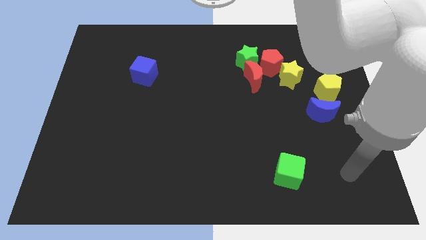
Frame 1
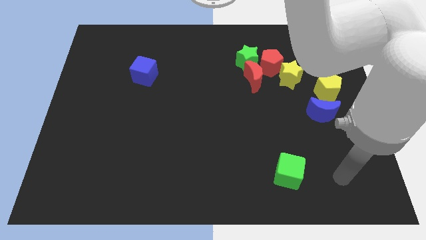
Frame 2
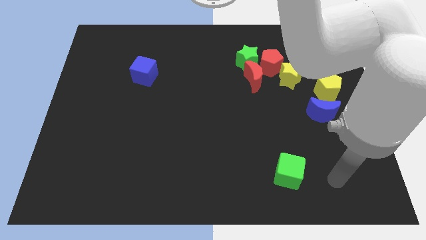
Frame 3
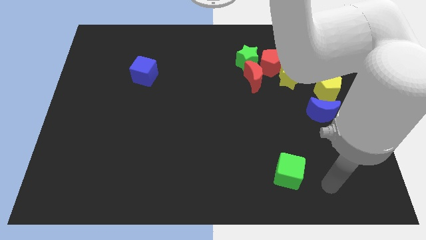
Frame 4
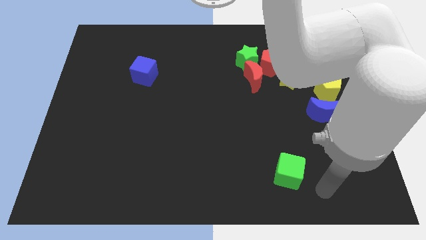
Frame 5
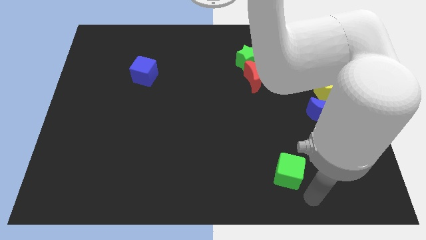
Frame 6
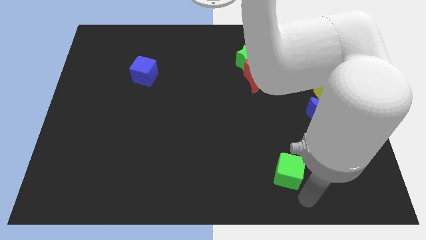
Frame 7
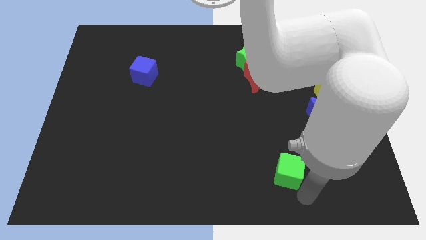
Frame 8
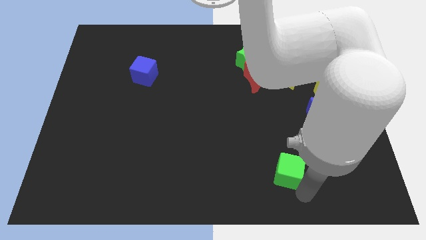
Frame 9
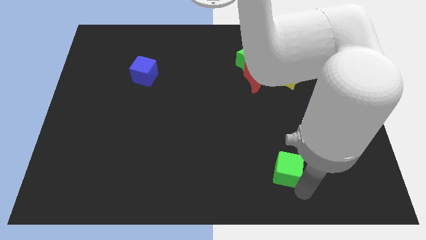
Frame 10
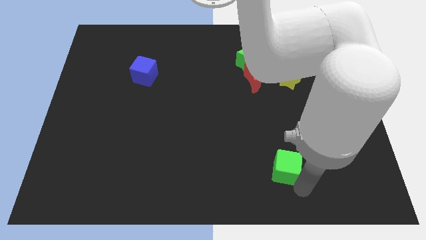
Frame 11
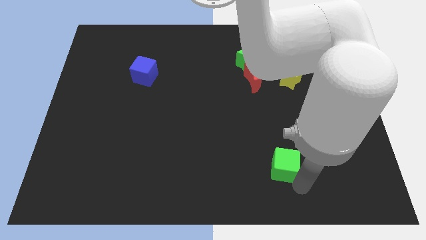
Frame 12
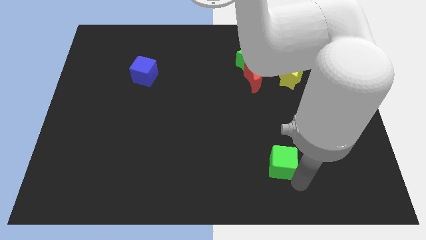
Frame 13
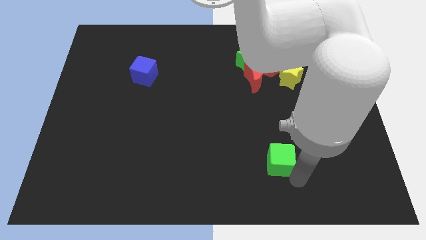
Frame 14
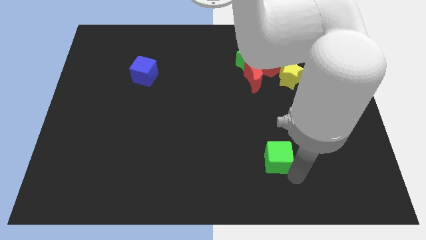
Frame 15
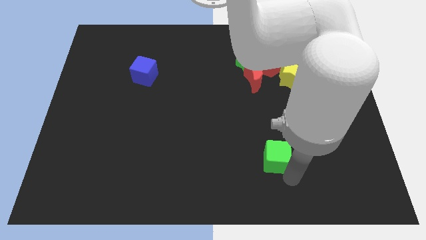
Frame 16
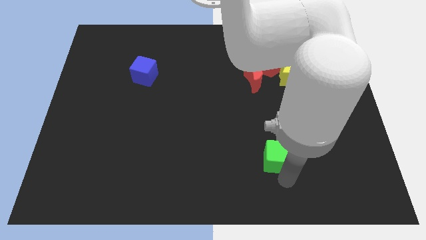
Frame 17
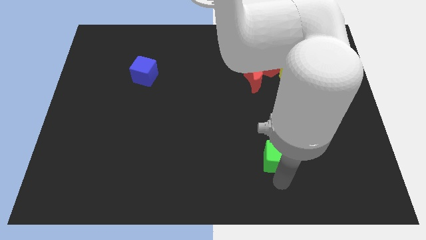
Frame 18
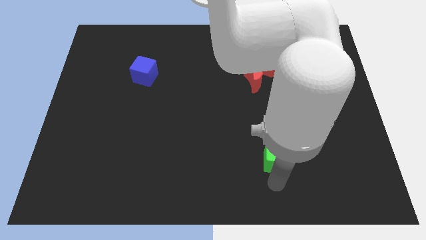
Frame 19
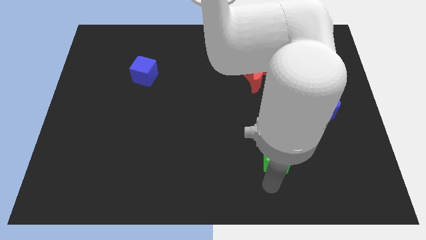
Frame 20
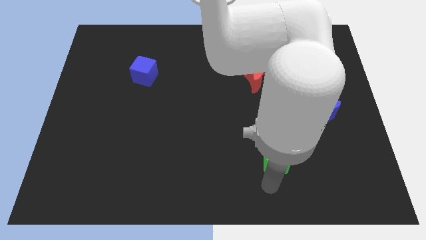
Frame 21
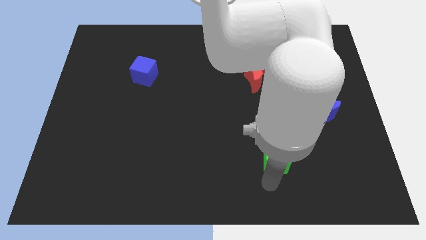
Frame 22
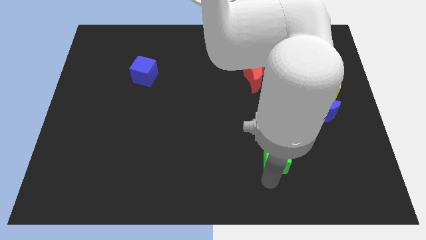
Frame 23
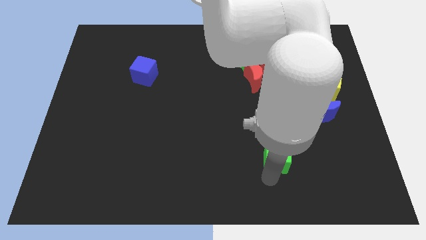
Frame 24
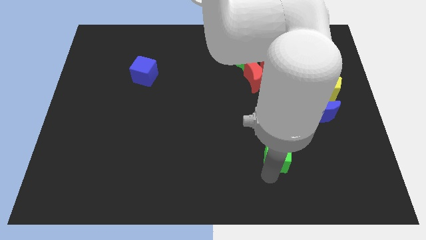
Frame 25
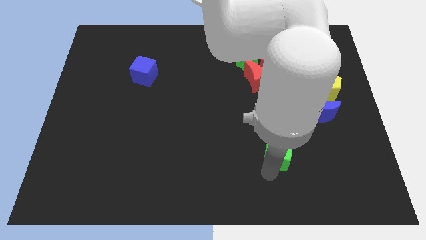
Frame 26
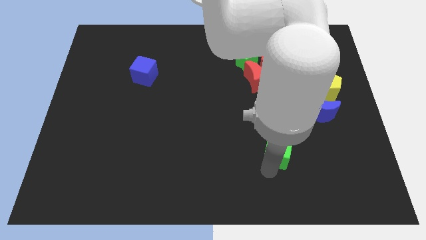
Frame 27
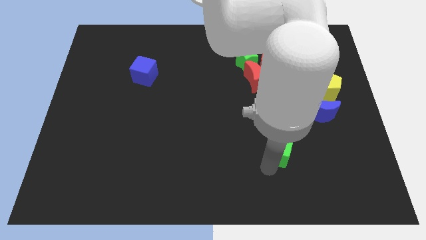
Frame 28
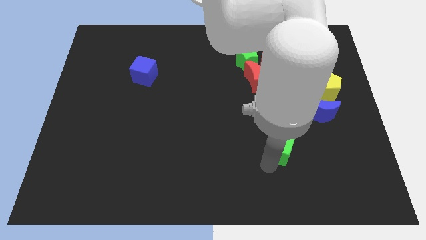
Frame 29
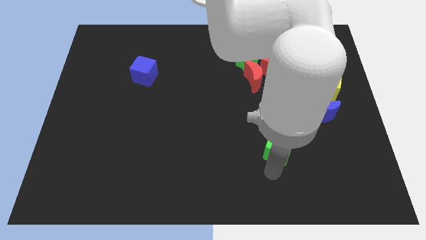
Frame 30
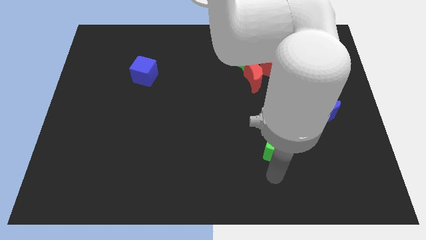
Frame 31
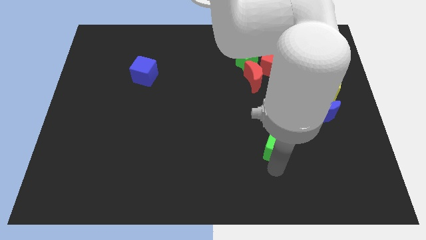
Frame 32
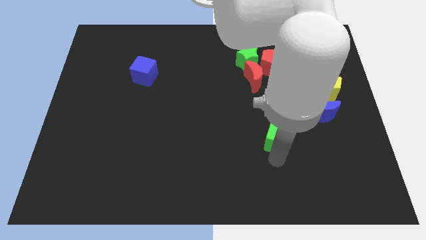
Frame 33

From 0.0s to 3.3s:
slightly push the green cube up

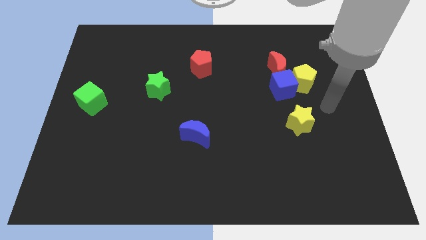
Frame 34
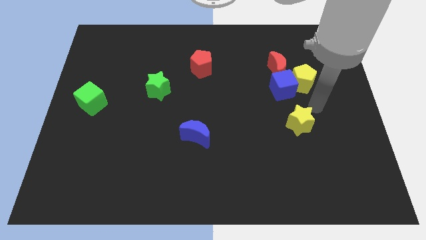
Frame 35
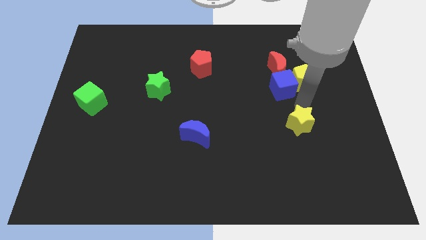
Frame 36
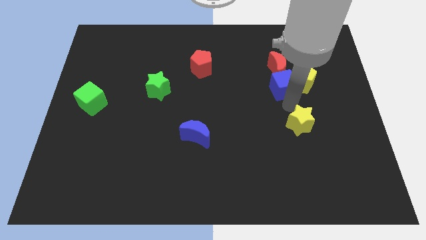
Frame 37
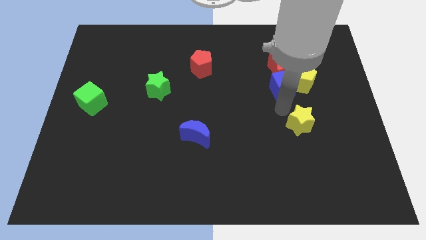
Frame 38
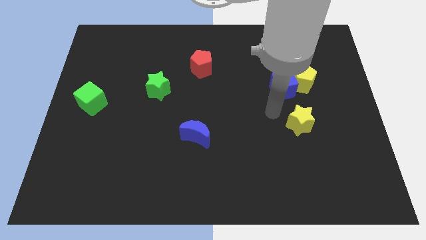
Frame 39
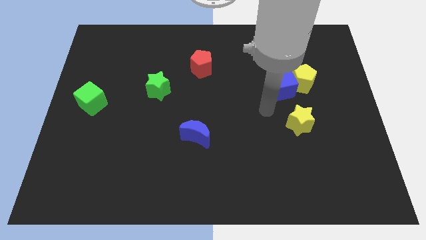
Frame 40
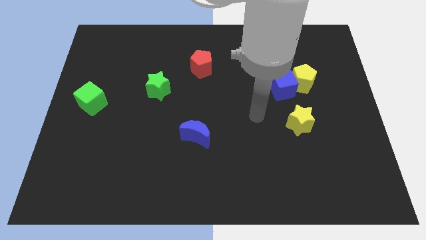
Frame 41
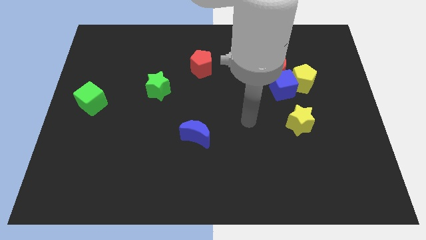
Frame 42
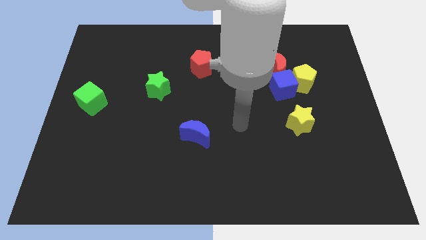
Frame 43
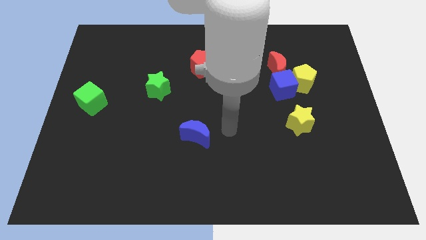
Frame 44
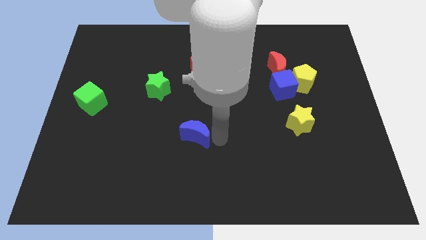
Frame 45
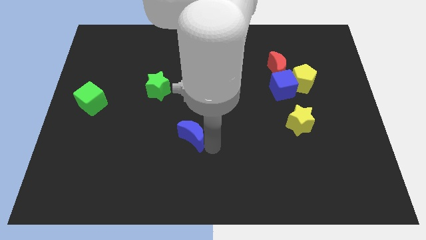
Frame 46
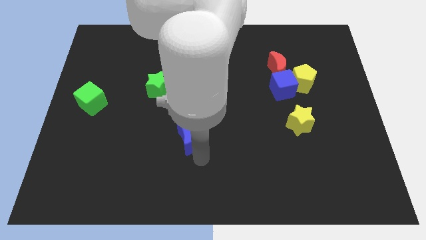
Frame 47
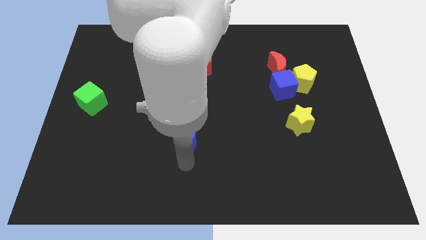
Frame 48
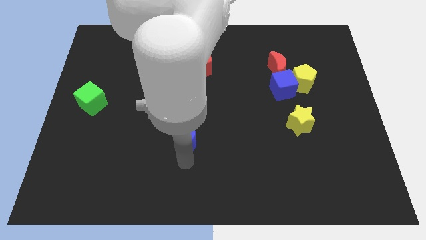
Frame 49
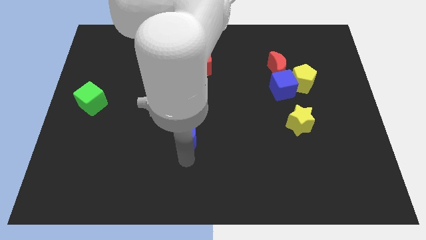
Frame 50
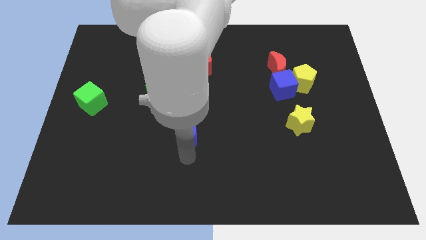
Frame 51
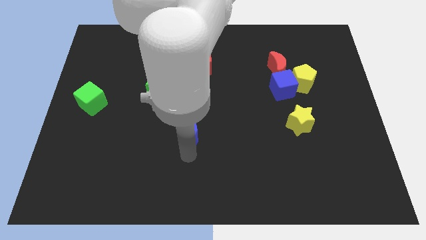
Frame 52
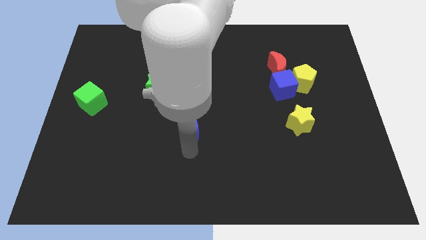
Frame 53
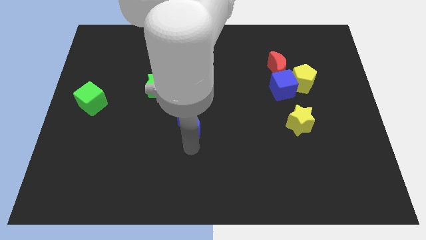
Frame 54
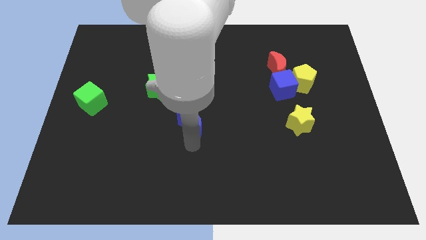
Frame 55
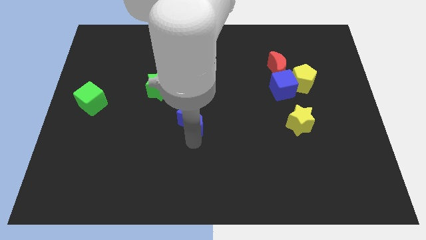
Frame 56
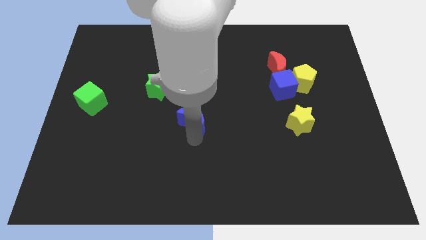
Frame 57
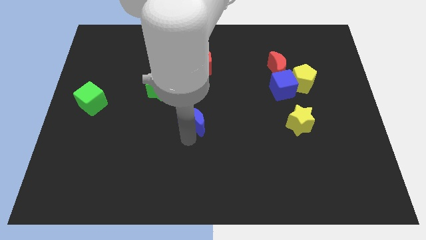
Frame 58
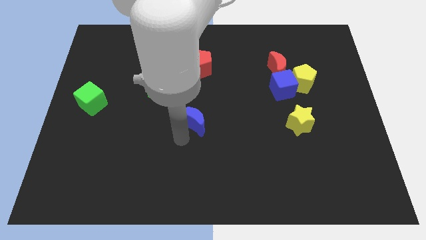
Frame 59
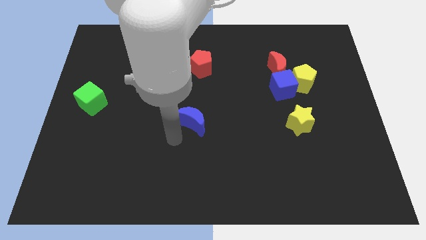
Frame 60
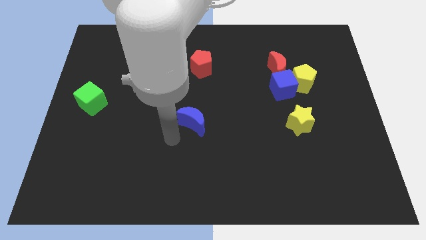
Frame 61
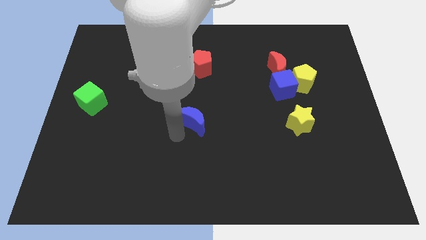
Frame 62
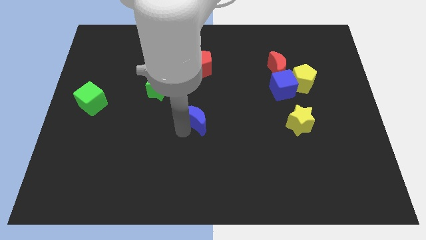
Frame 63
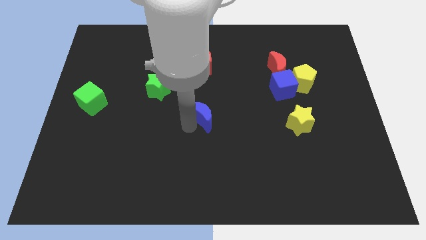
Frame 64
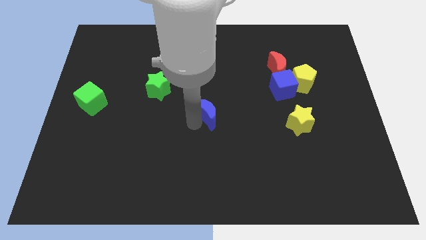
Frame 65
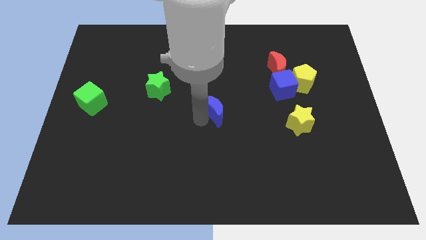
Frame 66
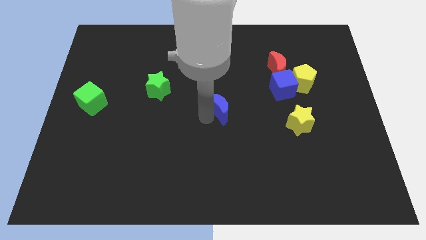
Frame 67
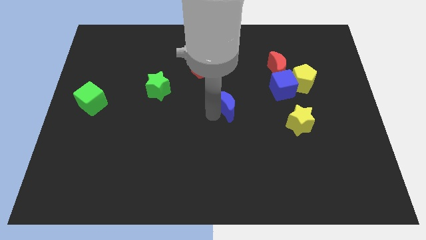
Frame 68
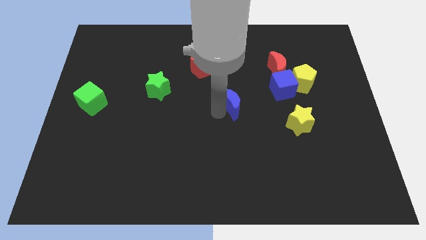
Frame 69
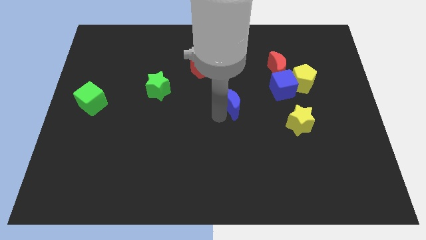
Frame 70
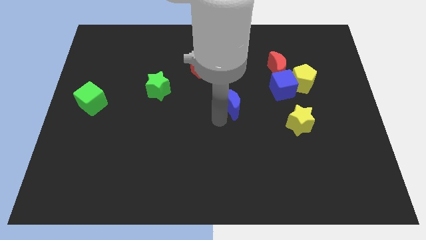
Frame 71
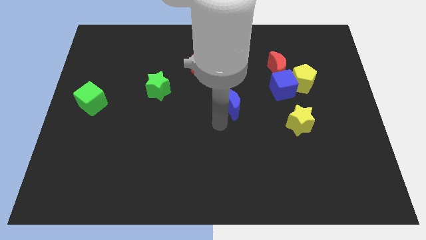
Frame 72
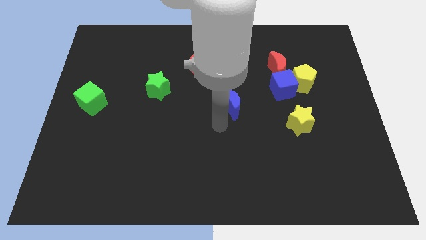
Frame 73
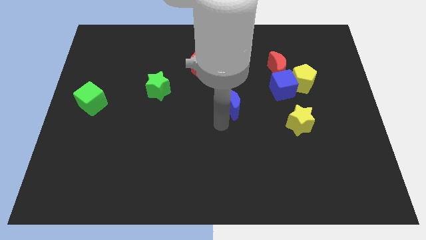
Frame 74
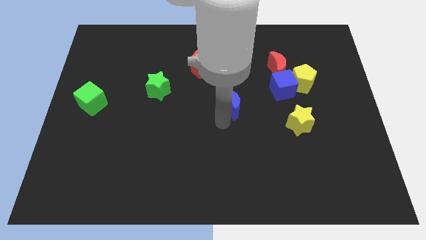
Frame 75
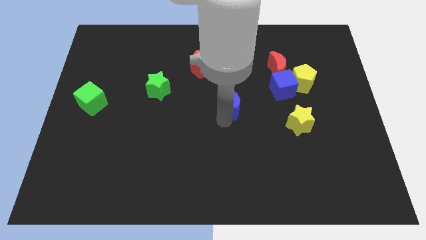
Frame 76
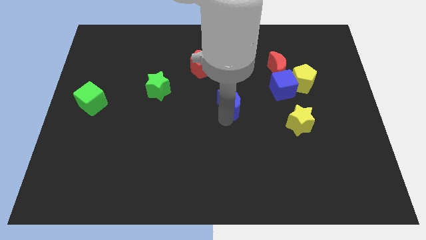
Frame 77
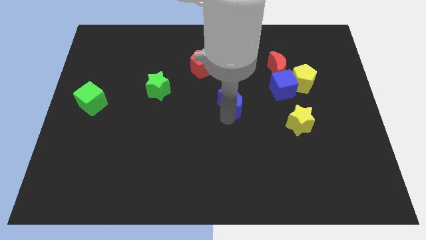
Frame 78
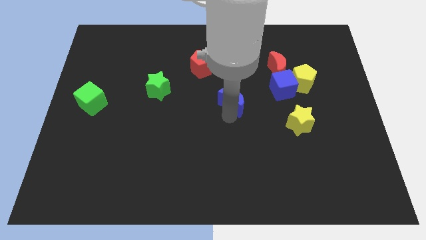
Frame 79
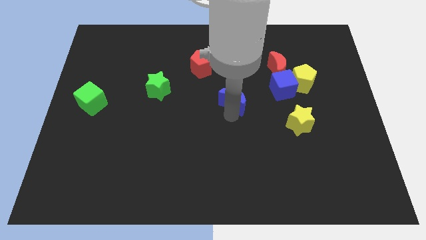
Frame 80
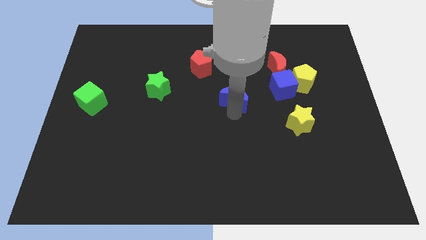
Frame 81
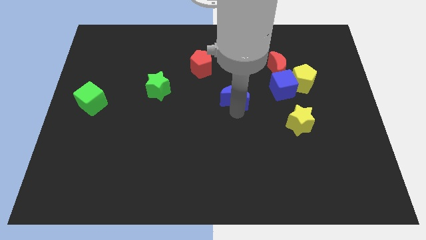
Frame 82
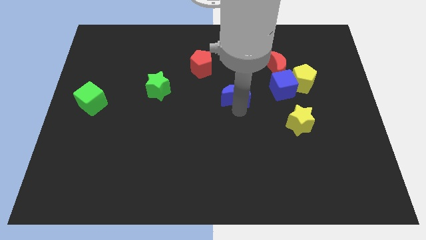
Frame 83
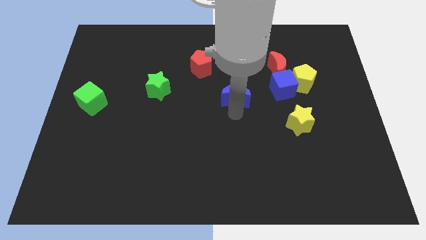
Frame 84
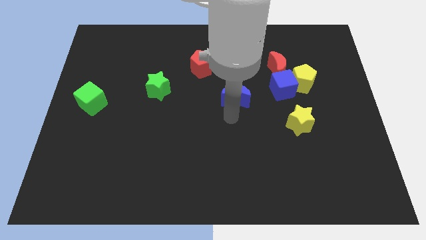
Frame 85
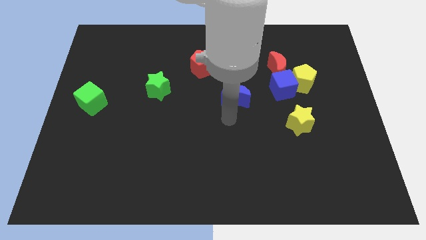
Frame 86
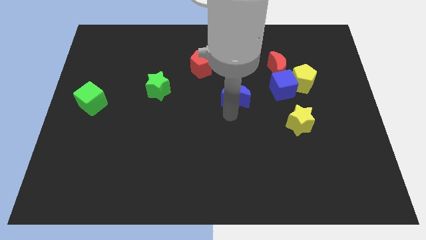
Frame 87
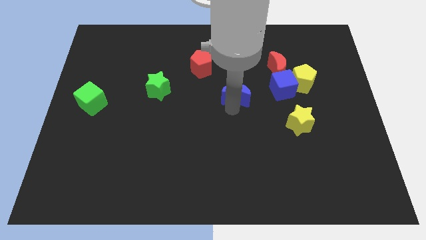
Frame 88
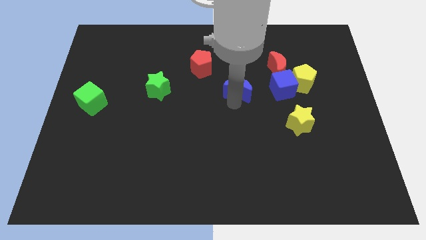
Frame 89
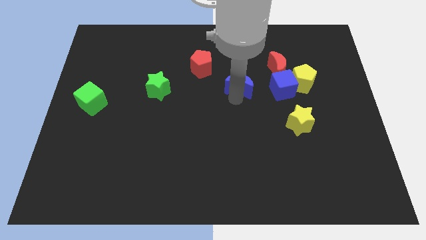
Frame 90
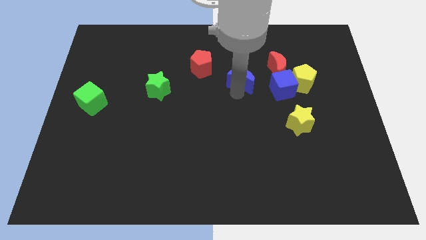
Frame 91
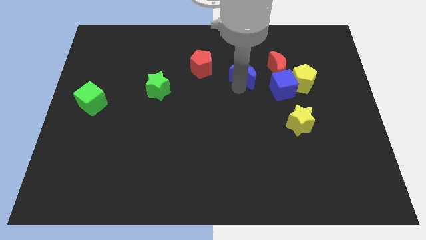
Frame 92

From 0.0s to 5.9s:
push the blue moon upwards and to the right diagonally
